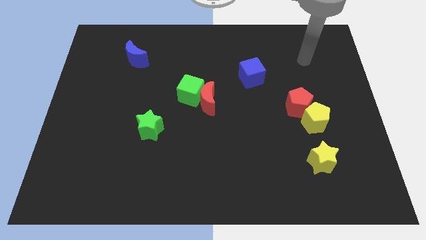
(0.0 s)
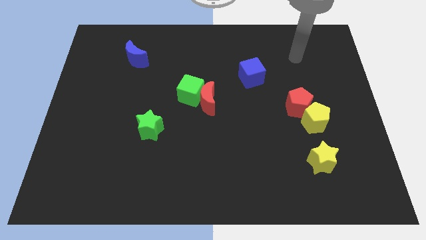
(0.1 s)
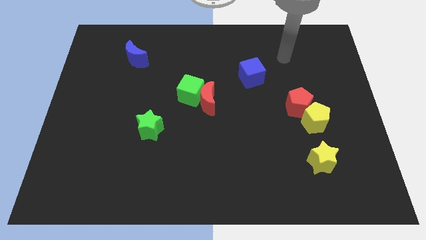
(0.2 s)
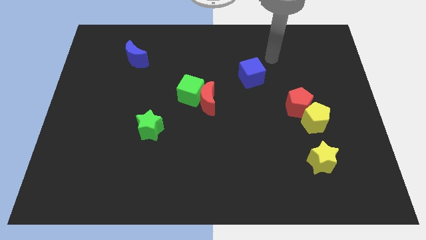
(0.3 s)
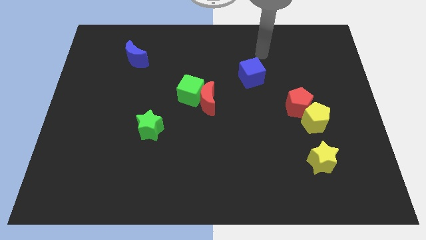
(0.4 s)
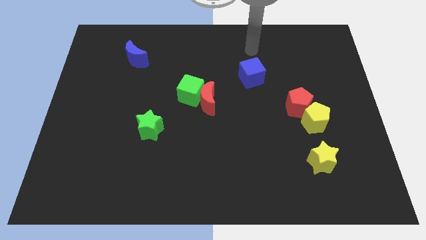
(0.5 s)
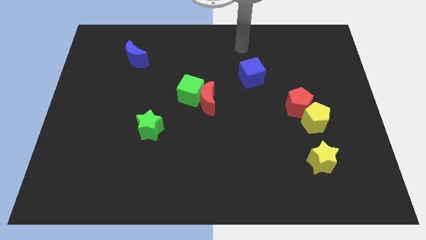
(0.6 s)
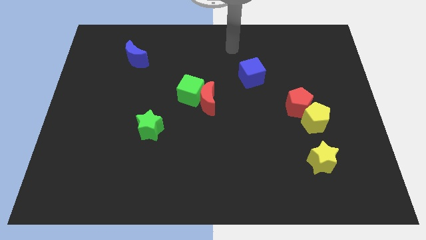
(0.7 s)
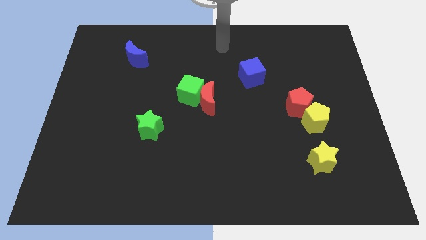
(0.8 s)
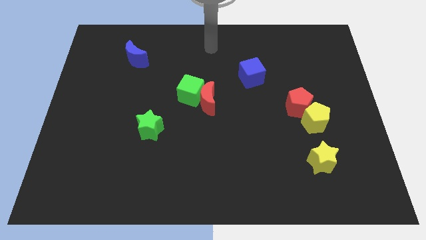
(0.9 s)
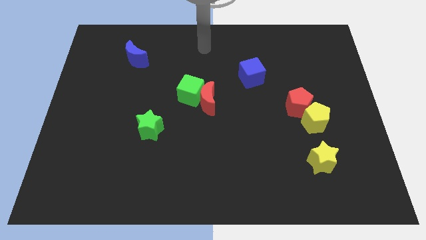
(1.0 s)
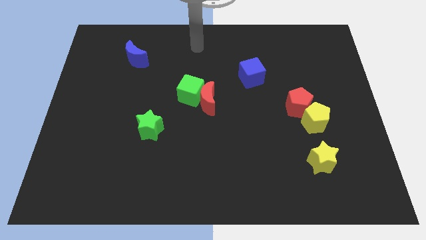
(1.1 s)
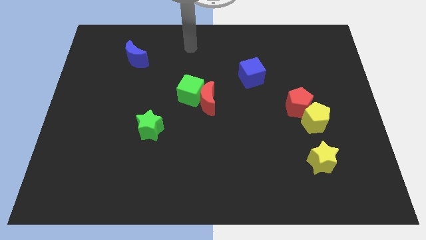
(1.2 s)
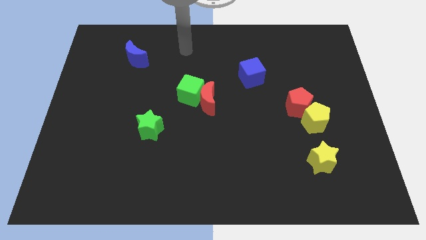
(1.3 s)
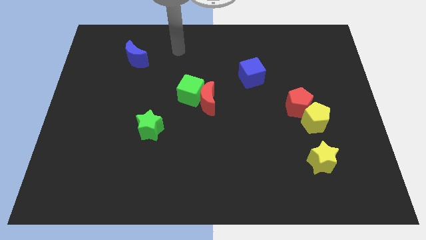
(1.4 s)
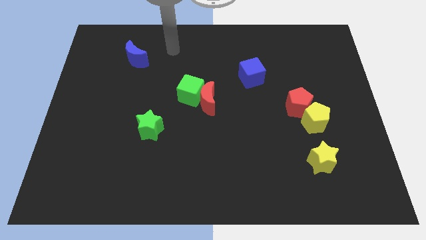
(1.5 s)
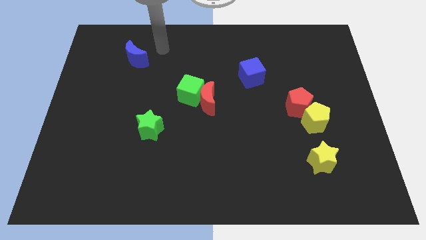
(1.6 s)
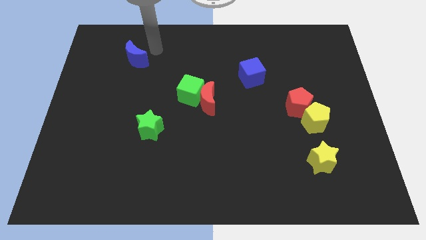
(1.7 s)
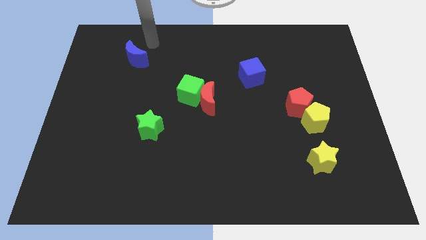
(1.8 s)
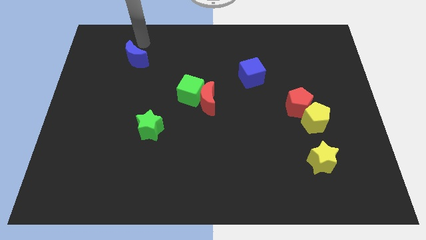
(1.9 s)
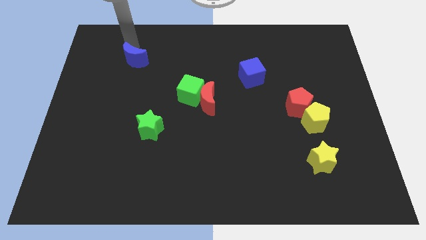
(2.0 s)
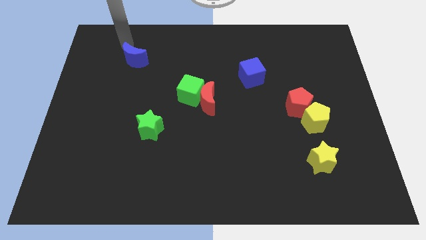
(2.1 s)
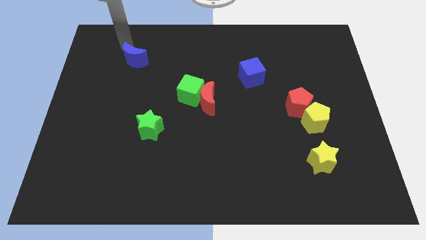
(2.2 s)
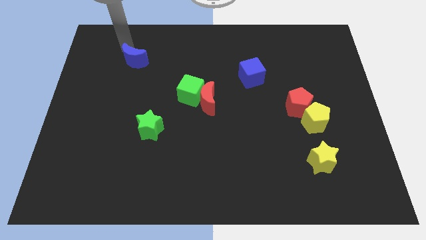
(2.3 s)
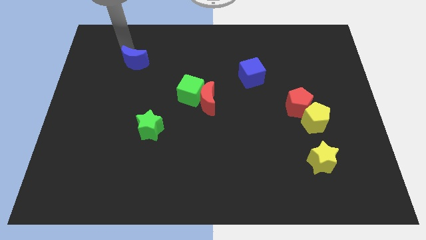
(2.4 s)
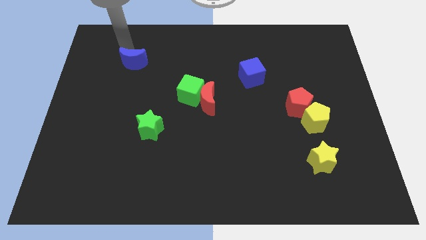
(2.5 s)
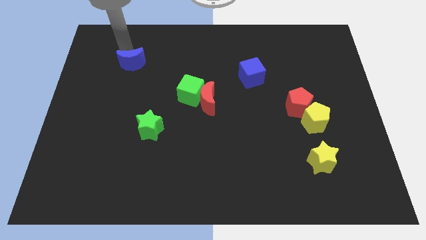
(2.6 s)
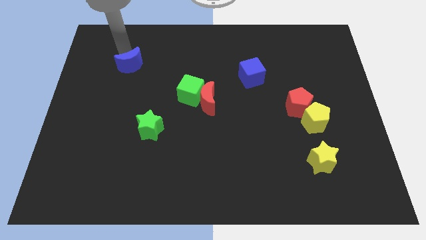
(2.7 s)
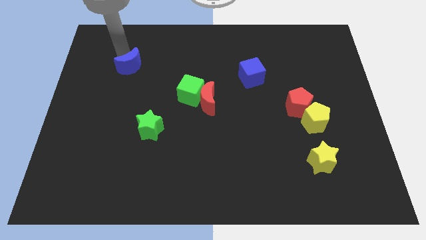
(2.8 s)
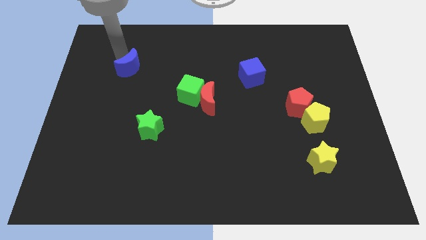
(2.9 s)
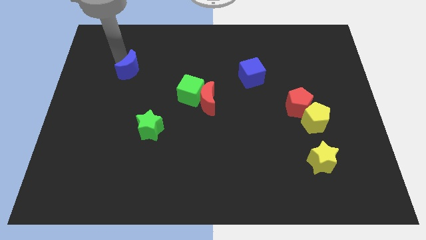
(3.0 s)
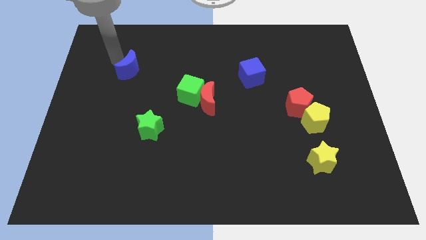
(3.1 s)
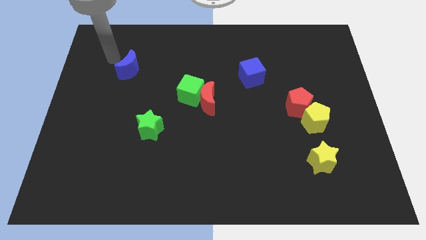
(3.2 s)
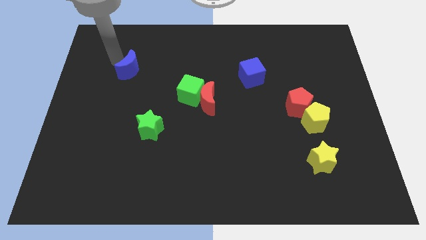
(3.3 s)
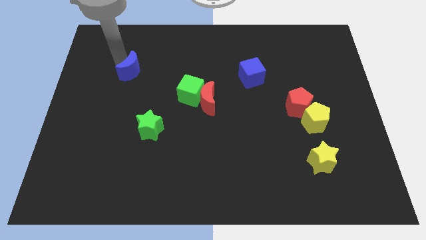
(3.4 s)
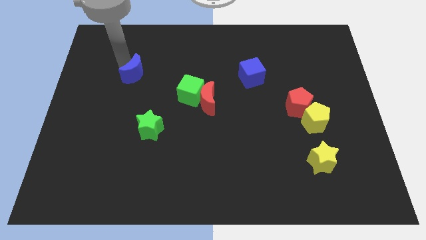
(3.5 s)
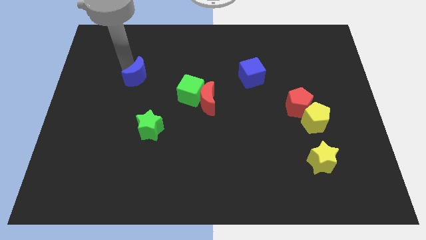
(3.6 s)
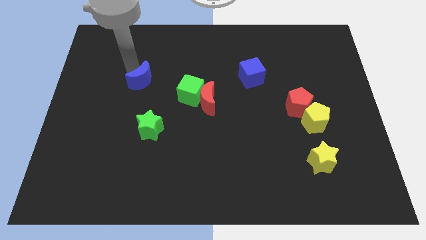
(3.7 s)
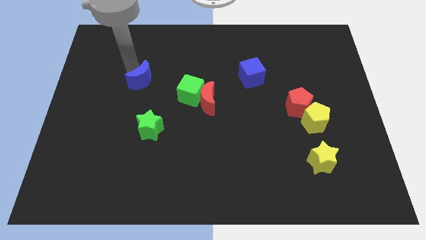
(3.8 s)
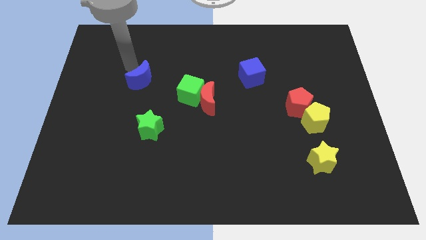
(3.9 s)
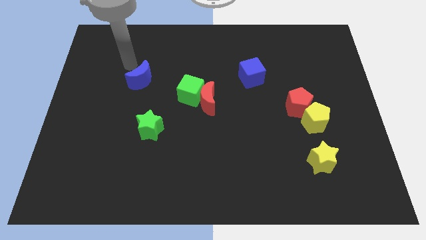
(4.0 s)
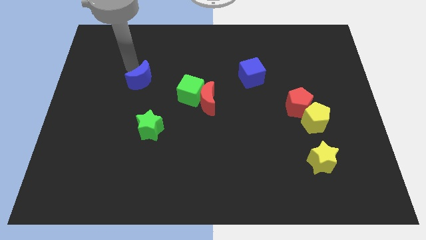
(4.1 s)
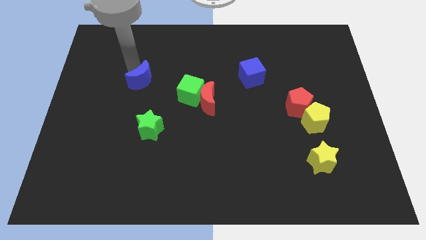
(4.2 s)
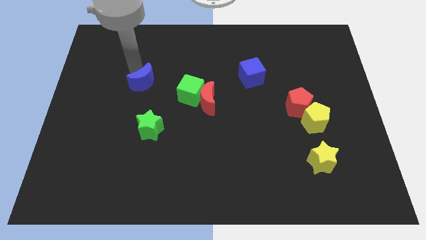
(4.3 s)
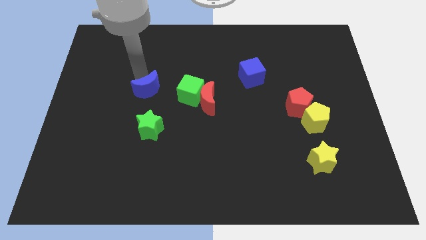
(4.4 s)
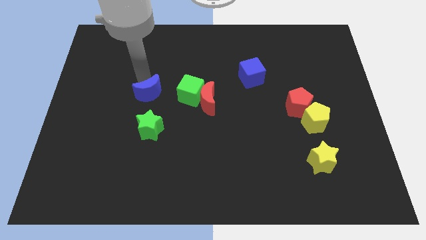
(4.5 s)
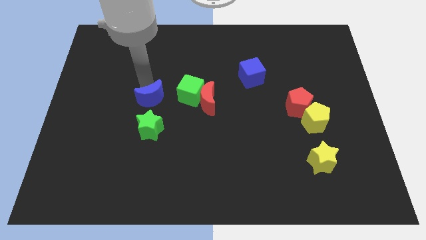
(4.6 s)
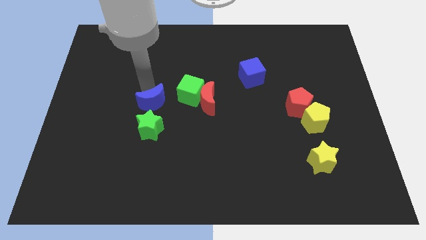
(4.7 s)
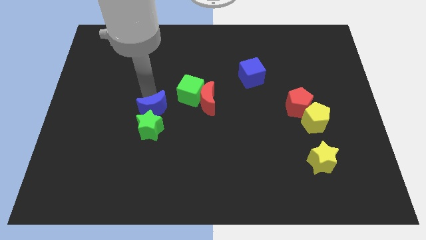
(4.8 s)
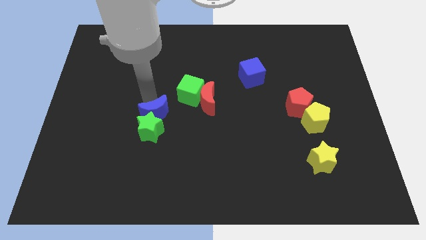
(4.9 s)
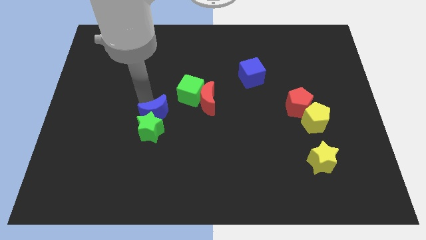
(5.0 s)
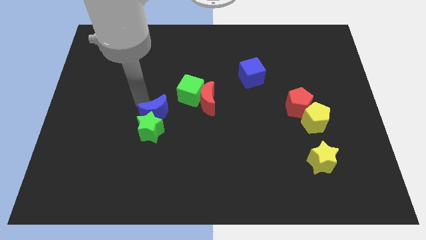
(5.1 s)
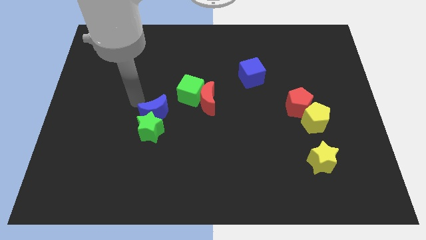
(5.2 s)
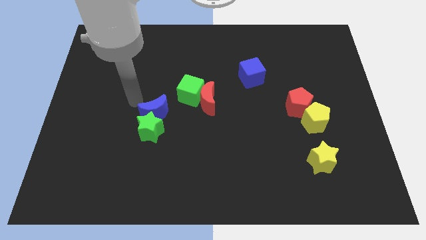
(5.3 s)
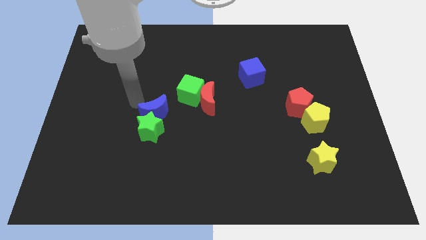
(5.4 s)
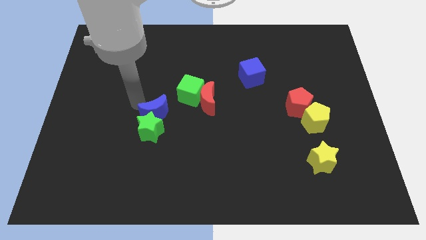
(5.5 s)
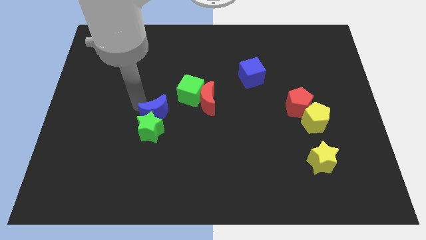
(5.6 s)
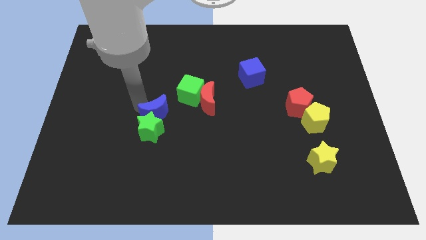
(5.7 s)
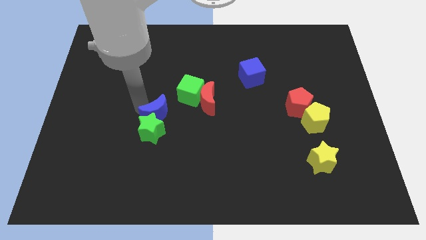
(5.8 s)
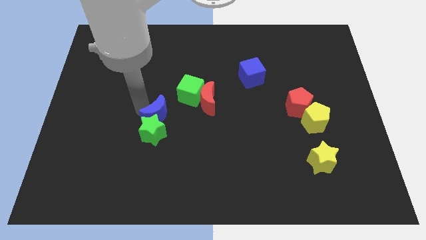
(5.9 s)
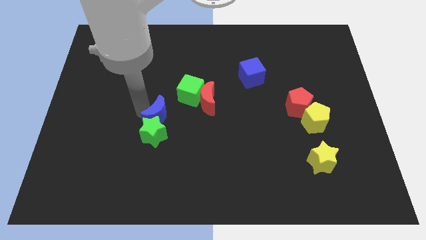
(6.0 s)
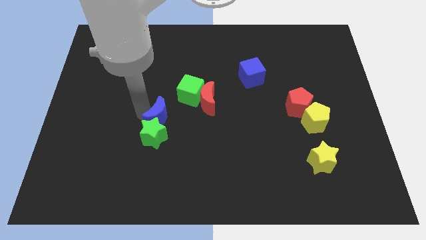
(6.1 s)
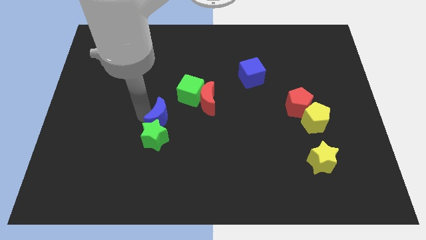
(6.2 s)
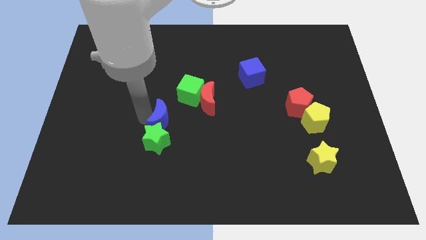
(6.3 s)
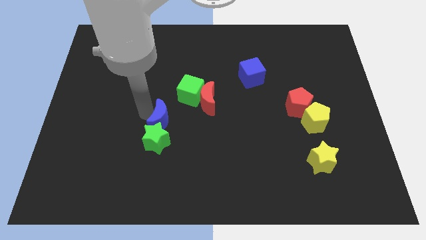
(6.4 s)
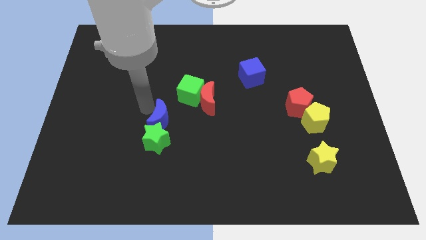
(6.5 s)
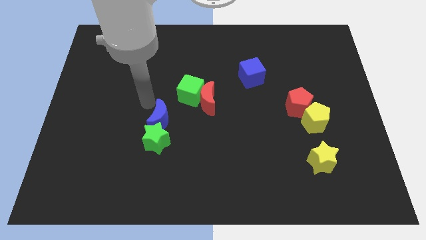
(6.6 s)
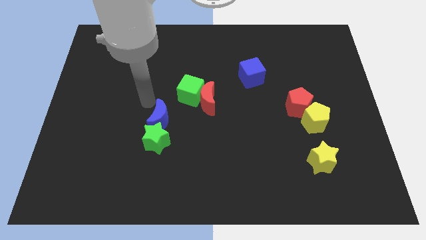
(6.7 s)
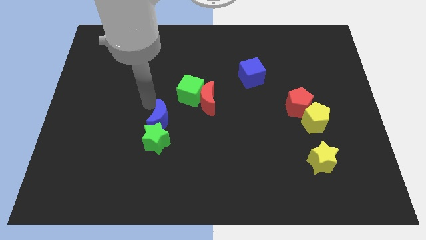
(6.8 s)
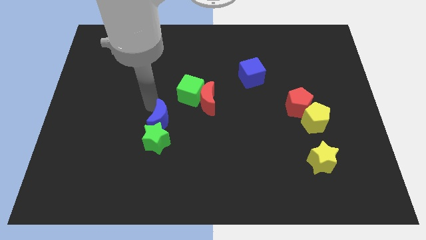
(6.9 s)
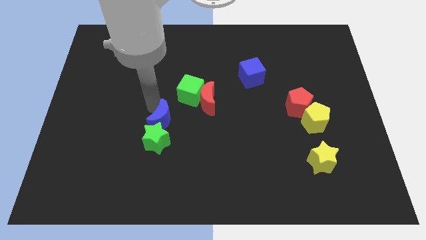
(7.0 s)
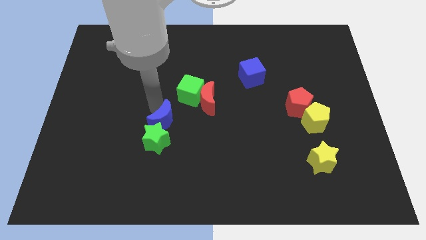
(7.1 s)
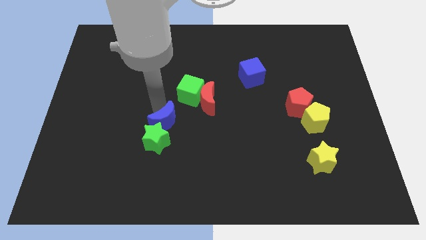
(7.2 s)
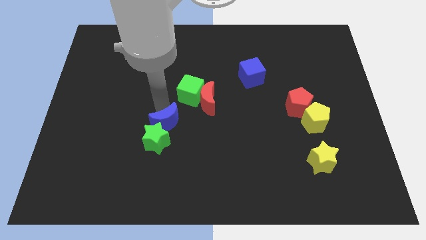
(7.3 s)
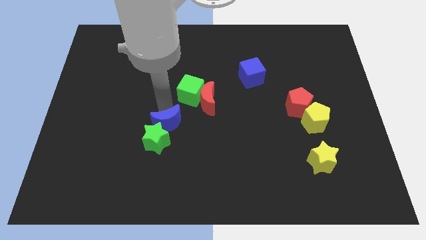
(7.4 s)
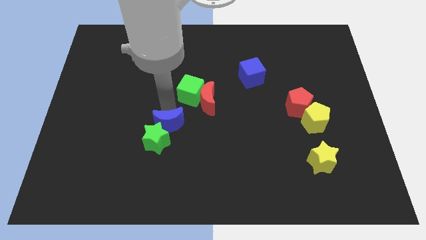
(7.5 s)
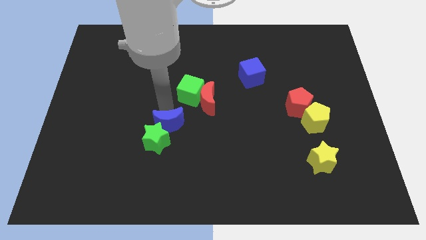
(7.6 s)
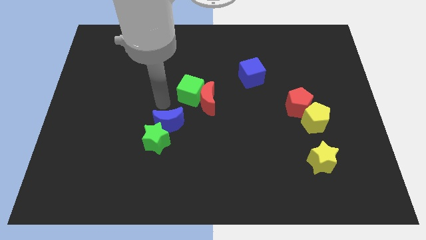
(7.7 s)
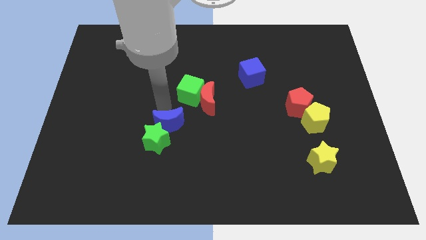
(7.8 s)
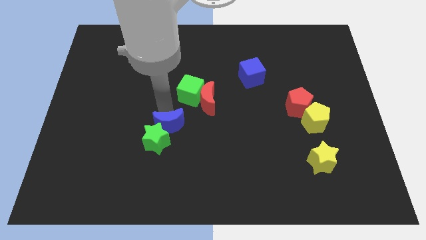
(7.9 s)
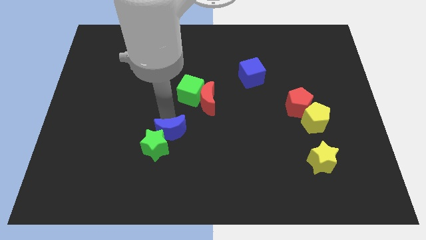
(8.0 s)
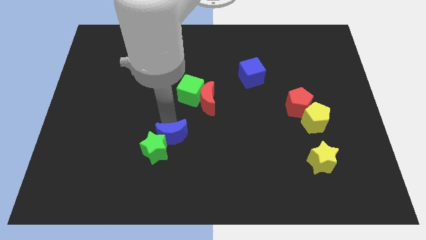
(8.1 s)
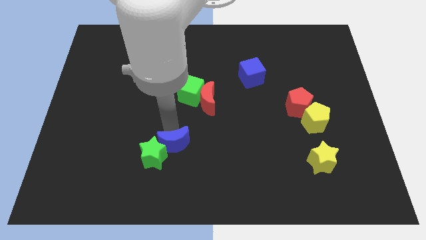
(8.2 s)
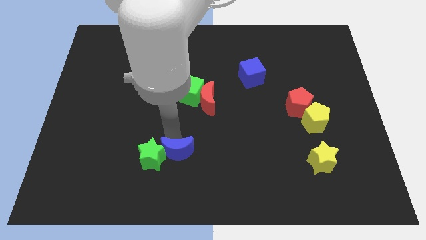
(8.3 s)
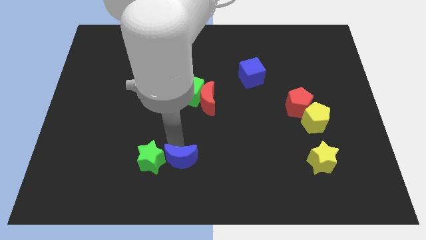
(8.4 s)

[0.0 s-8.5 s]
push the blue moon to the bottom side
